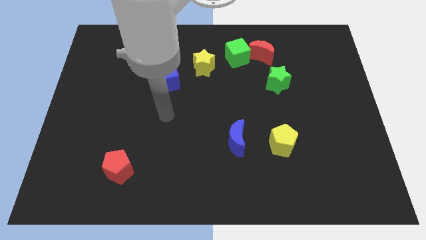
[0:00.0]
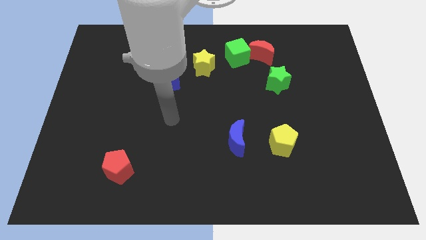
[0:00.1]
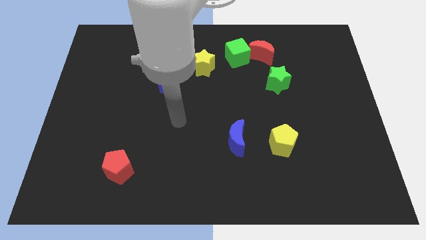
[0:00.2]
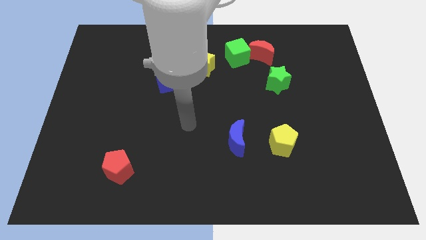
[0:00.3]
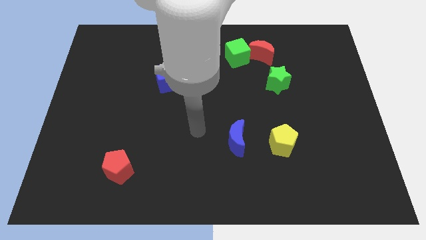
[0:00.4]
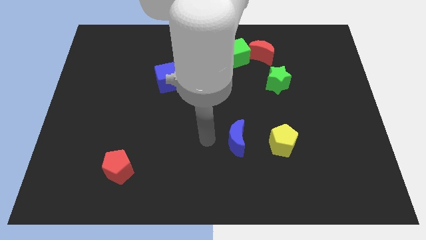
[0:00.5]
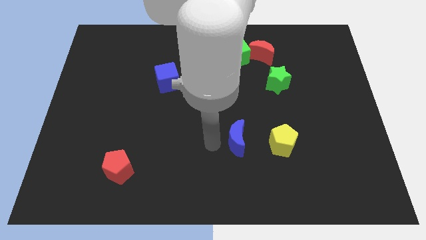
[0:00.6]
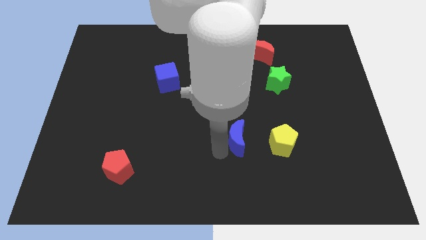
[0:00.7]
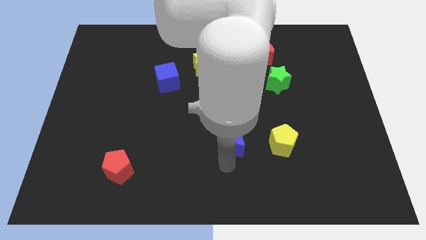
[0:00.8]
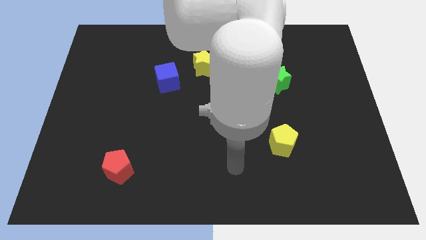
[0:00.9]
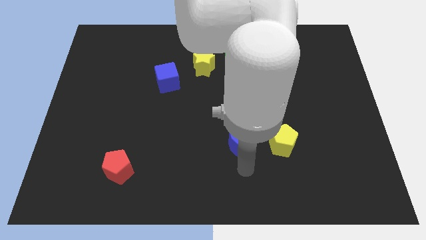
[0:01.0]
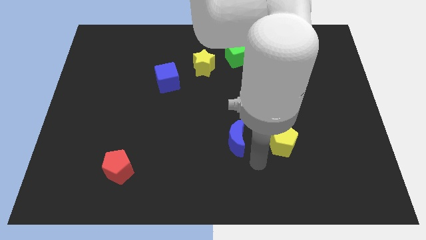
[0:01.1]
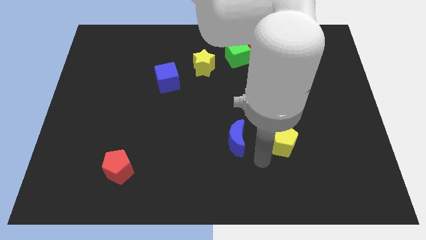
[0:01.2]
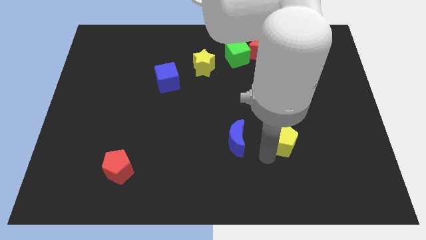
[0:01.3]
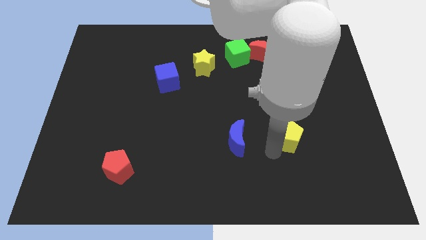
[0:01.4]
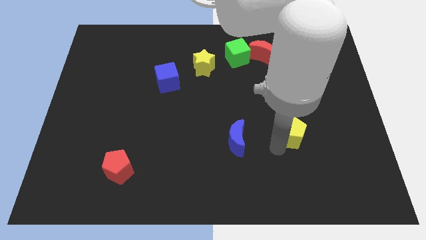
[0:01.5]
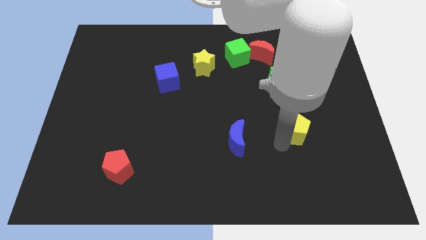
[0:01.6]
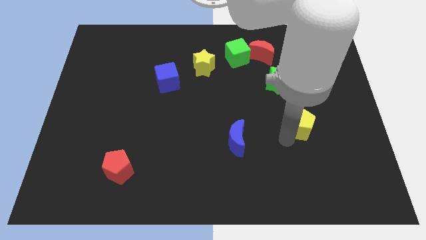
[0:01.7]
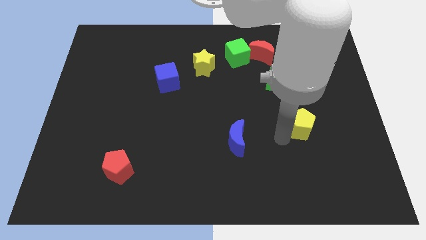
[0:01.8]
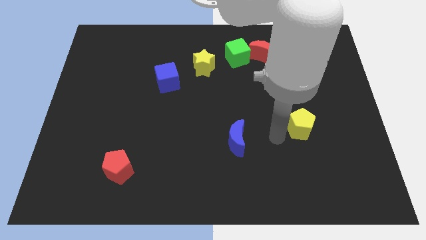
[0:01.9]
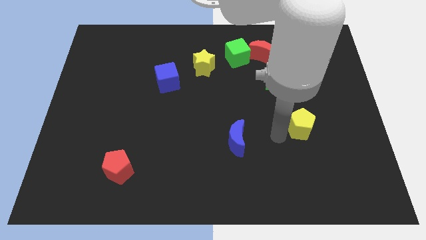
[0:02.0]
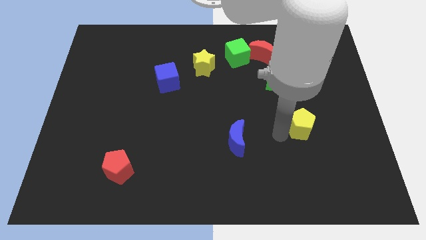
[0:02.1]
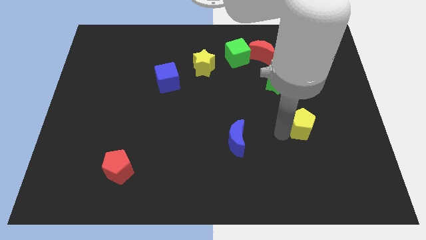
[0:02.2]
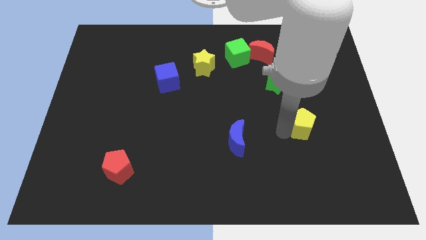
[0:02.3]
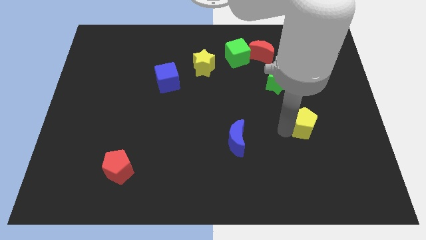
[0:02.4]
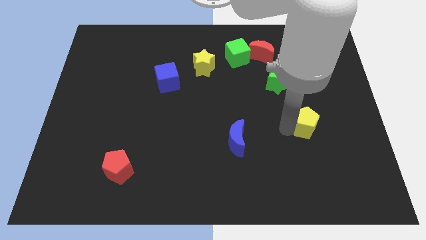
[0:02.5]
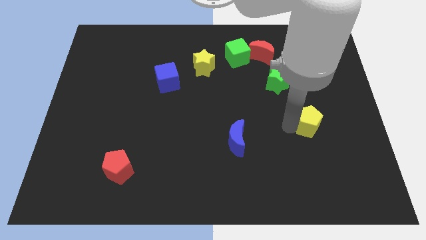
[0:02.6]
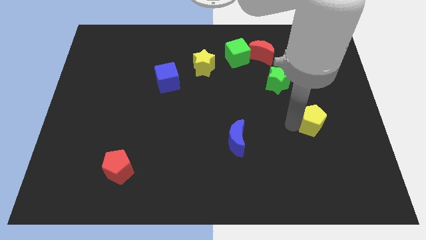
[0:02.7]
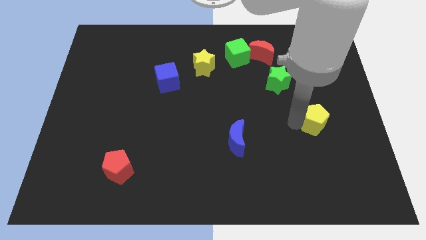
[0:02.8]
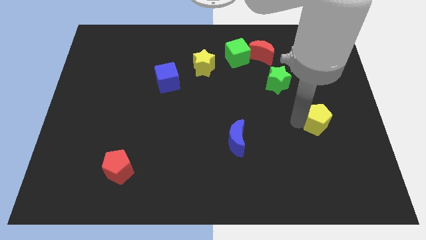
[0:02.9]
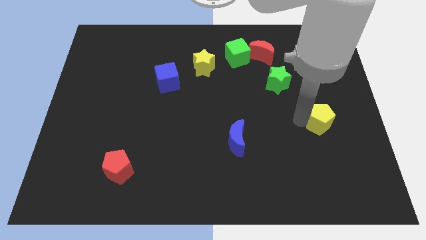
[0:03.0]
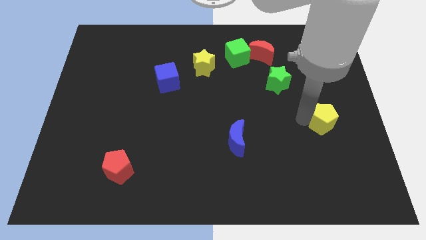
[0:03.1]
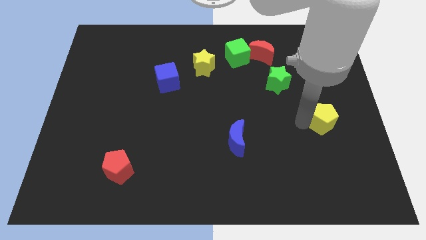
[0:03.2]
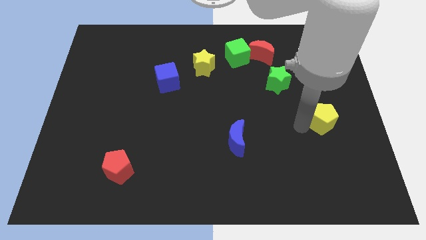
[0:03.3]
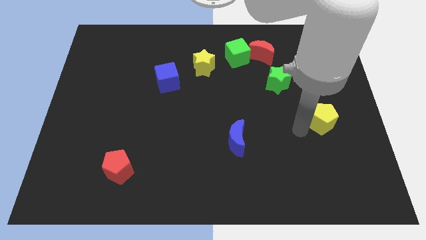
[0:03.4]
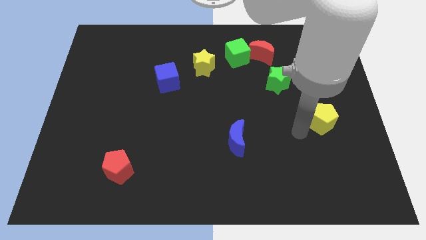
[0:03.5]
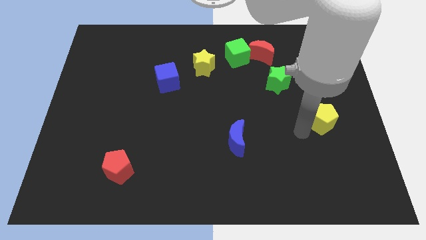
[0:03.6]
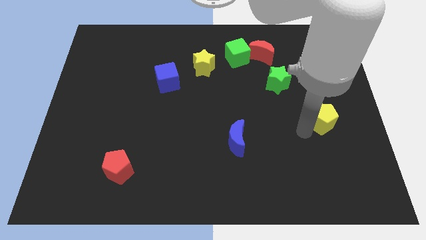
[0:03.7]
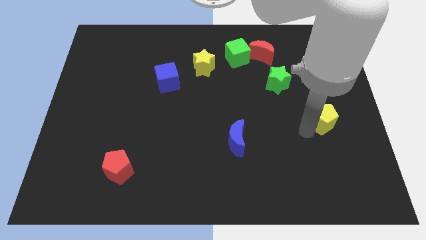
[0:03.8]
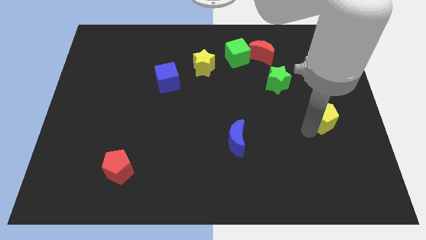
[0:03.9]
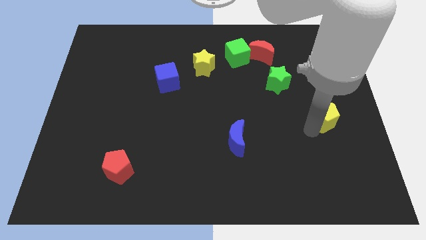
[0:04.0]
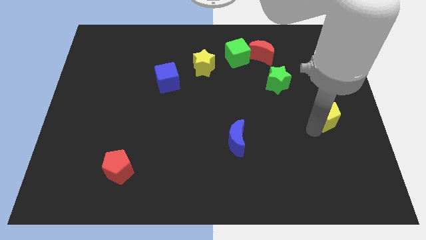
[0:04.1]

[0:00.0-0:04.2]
push the yellow pentagon to the center right

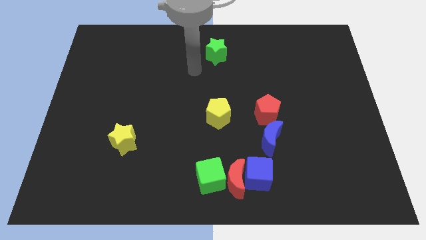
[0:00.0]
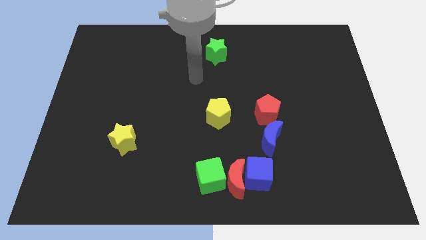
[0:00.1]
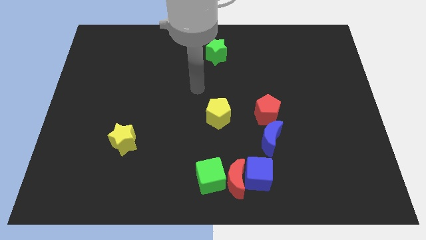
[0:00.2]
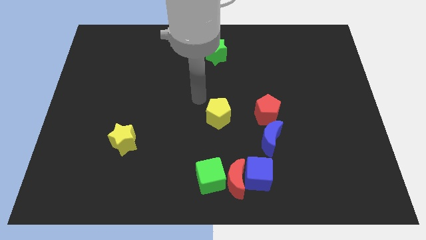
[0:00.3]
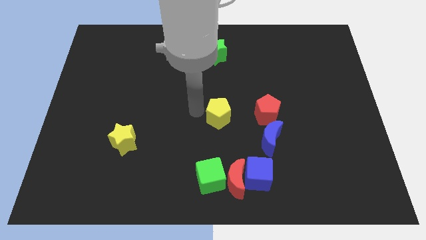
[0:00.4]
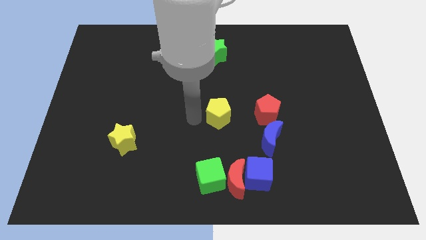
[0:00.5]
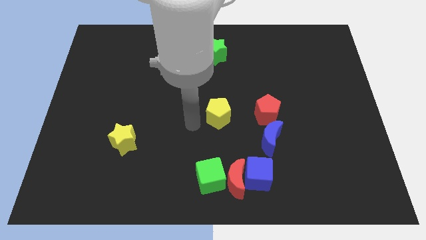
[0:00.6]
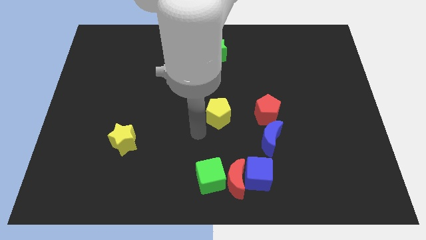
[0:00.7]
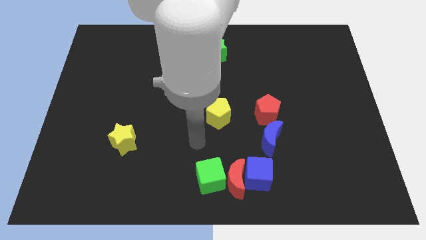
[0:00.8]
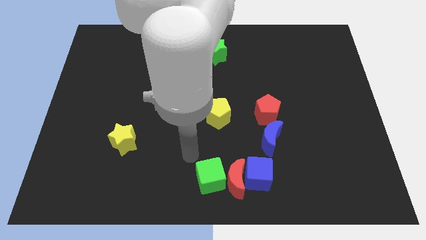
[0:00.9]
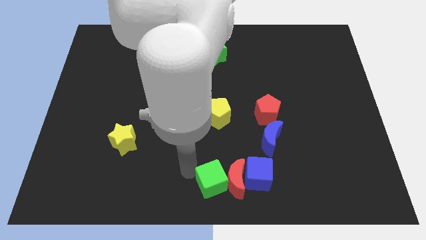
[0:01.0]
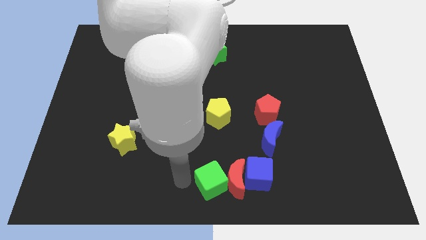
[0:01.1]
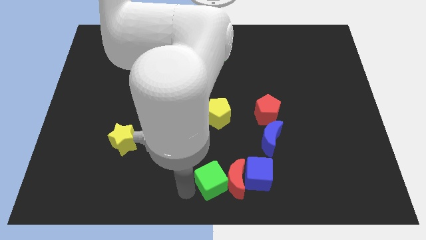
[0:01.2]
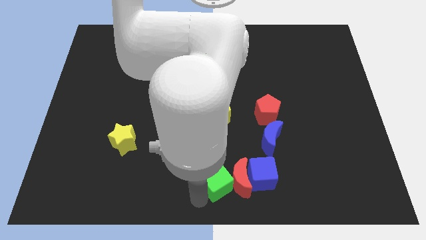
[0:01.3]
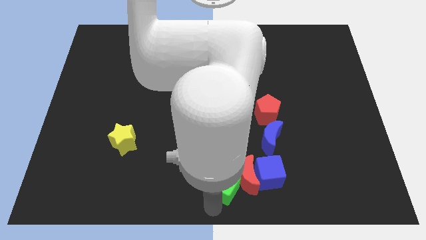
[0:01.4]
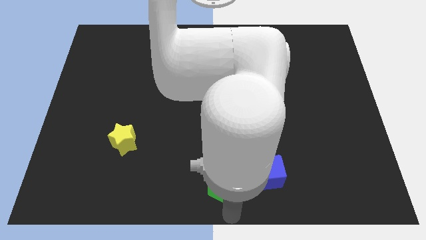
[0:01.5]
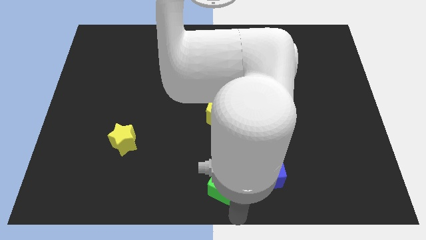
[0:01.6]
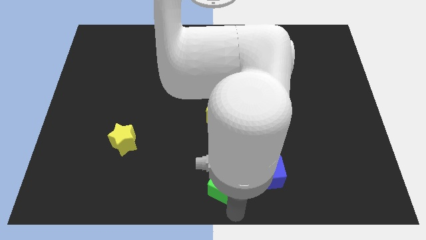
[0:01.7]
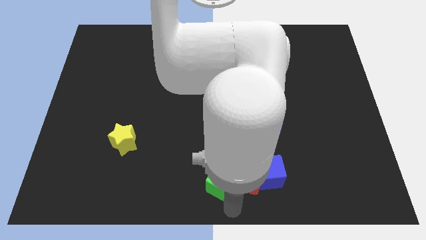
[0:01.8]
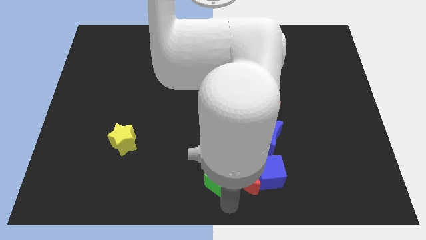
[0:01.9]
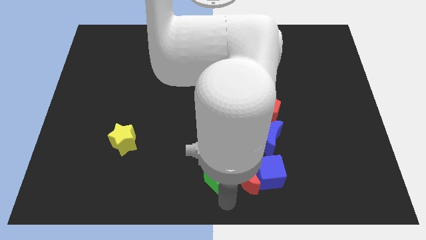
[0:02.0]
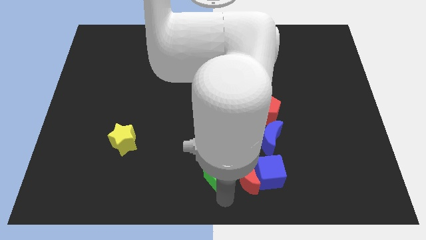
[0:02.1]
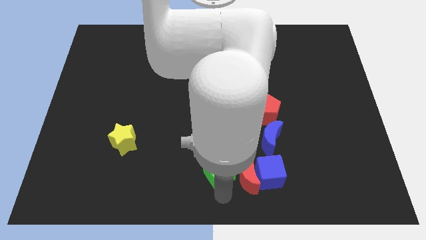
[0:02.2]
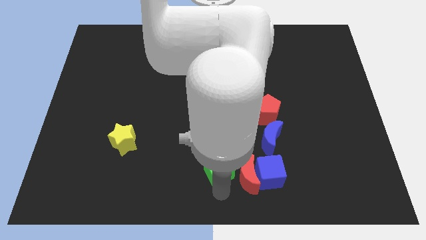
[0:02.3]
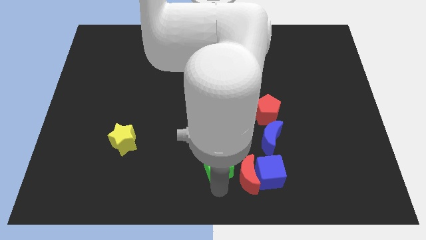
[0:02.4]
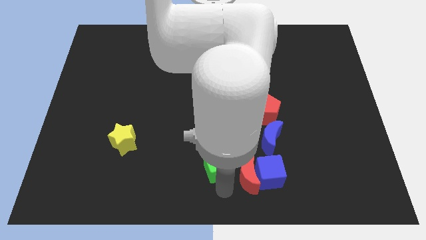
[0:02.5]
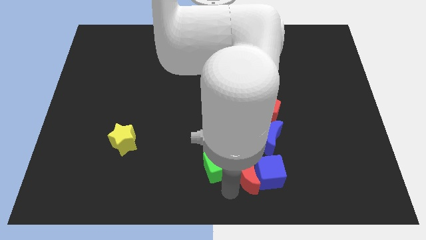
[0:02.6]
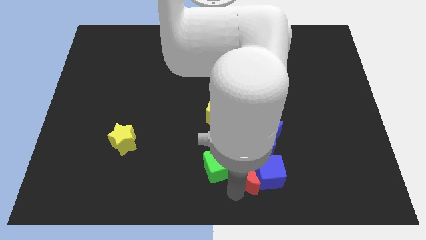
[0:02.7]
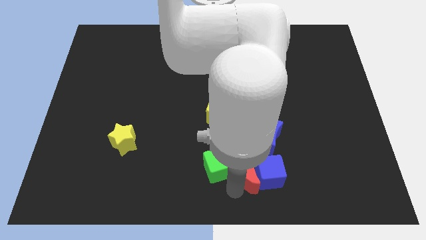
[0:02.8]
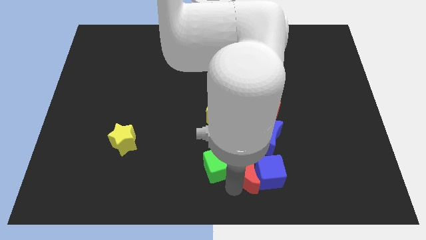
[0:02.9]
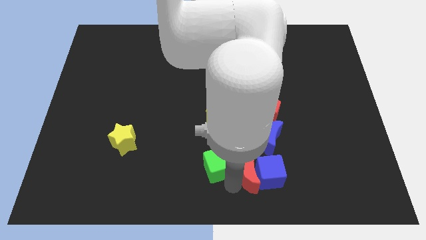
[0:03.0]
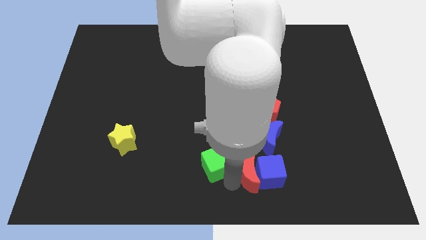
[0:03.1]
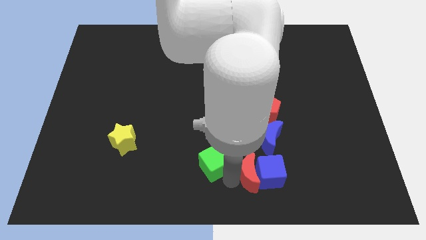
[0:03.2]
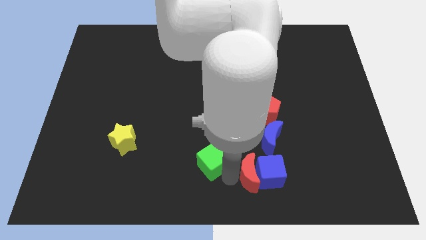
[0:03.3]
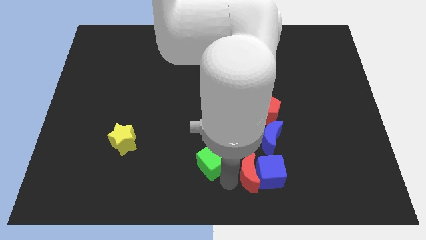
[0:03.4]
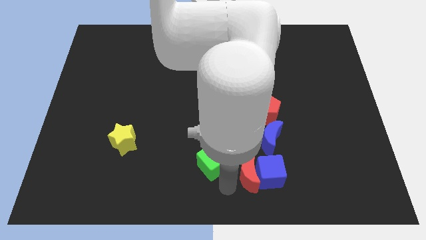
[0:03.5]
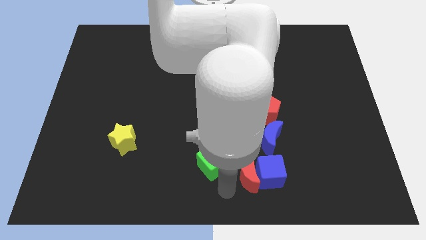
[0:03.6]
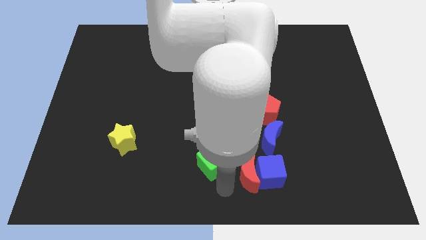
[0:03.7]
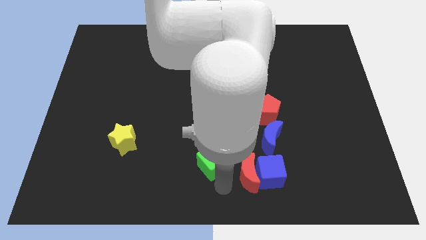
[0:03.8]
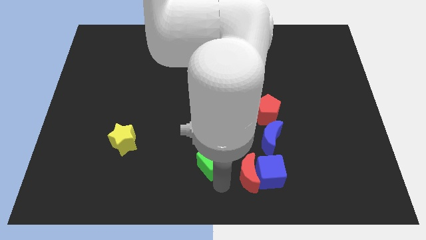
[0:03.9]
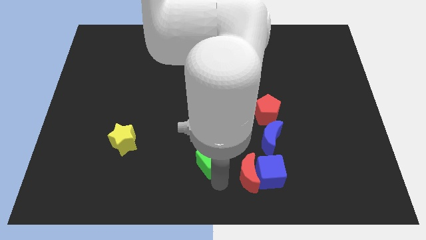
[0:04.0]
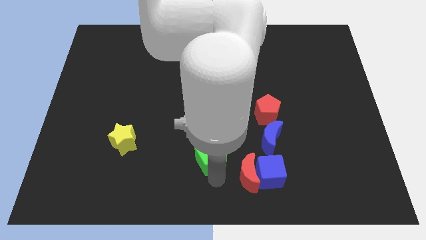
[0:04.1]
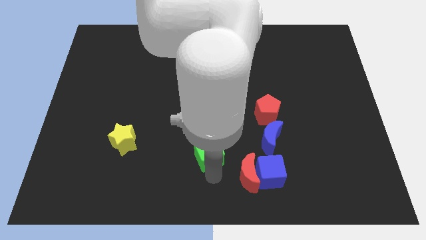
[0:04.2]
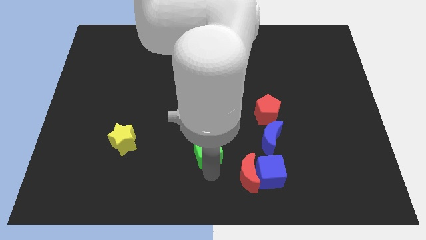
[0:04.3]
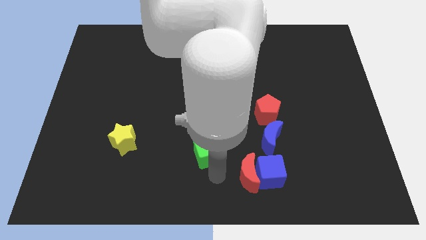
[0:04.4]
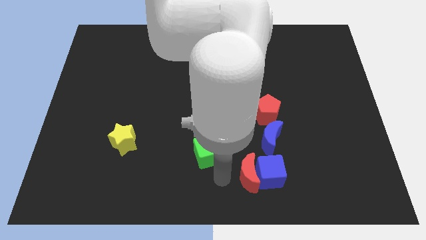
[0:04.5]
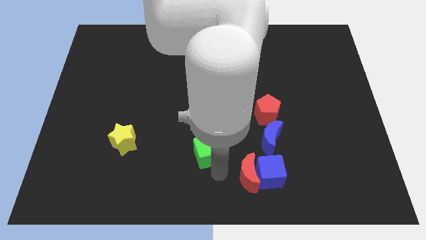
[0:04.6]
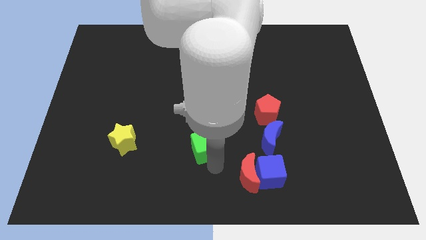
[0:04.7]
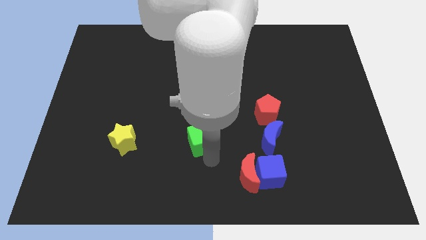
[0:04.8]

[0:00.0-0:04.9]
put the green cube to the center of the board
